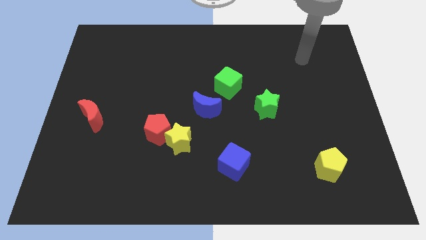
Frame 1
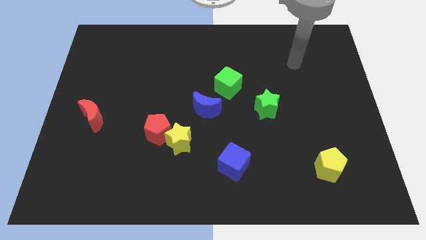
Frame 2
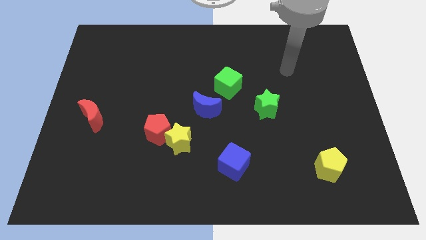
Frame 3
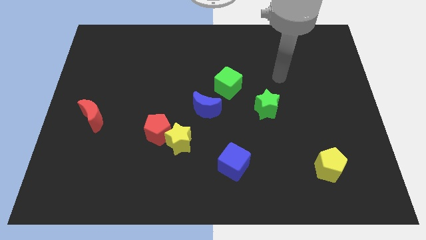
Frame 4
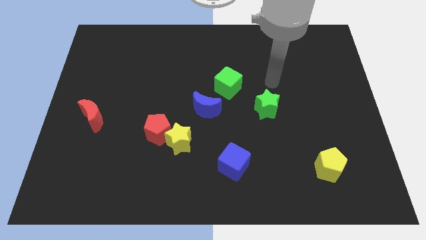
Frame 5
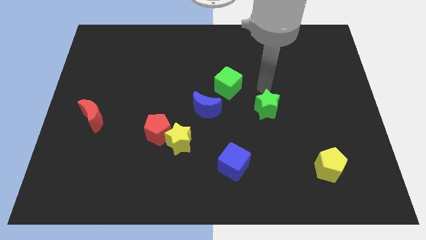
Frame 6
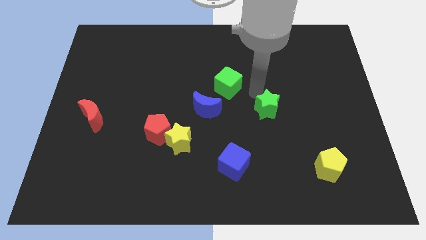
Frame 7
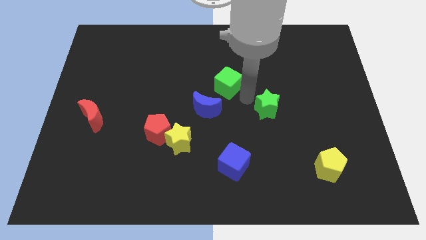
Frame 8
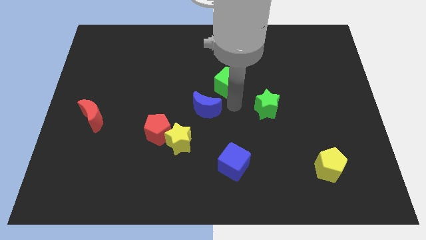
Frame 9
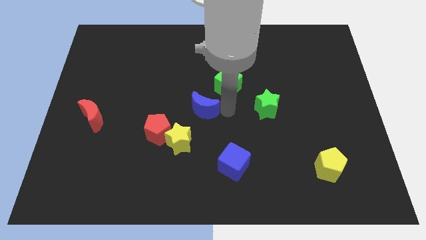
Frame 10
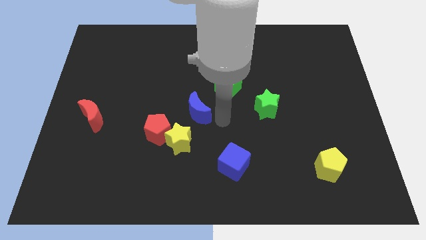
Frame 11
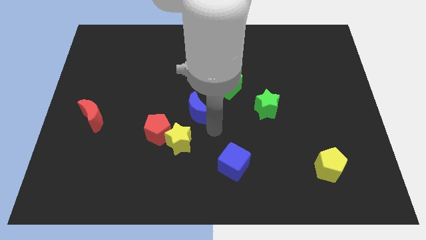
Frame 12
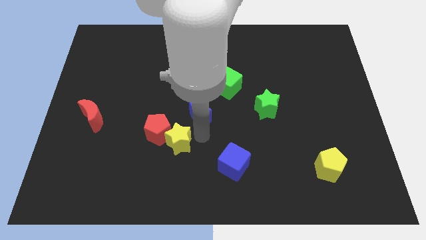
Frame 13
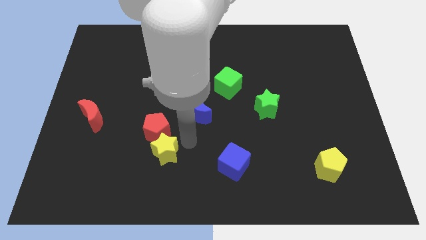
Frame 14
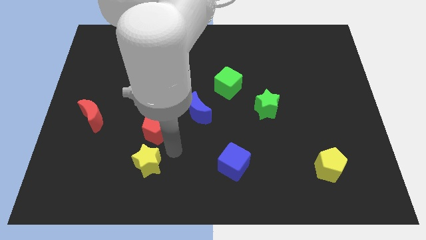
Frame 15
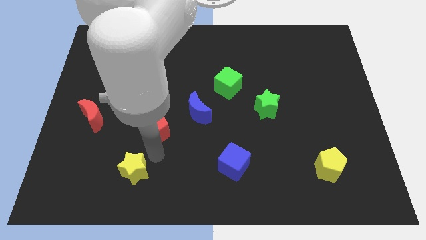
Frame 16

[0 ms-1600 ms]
separate the red pentagon from the yellow star

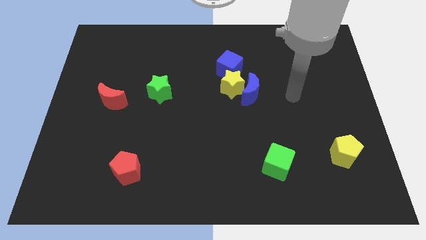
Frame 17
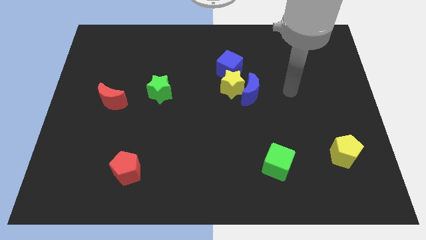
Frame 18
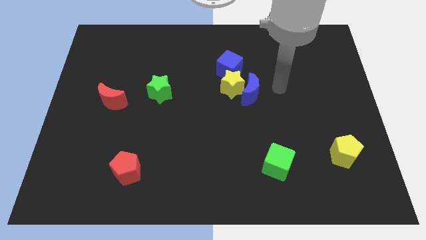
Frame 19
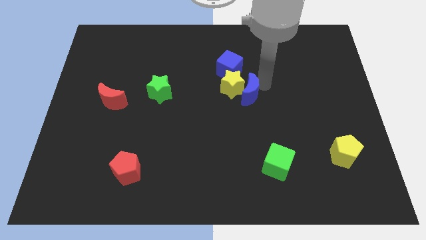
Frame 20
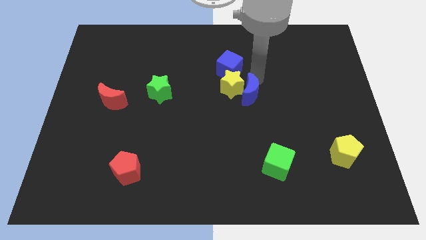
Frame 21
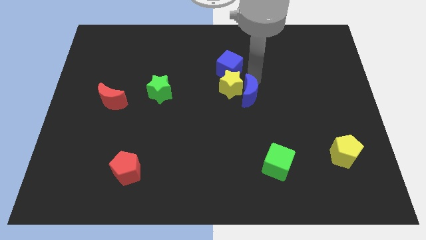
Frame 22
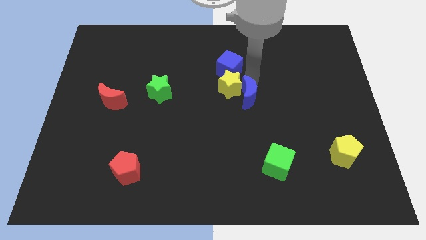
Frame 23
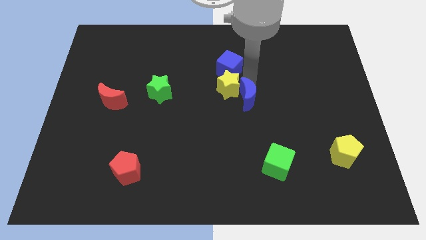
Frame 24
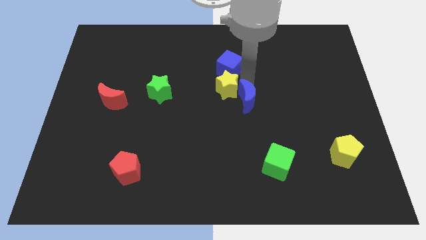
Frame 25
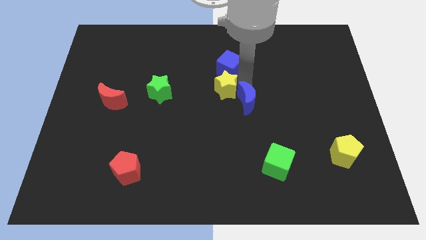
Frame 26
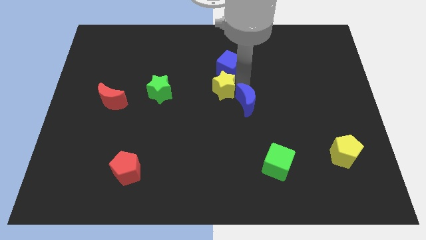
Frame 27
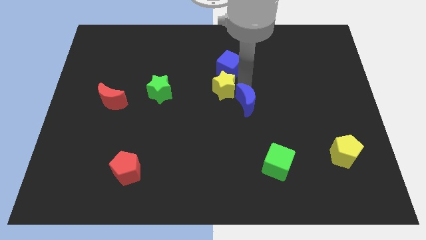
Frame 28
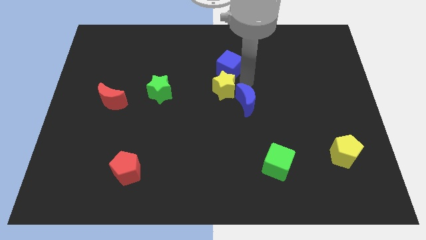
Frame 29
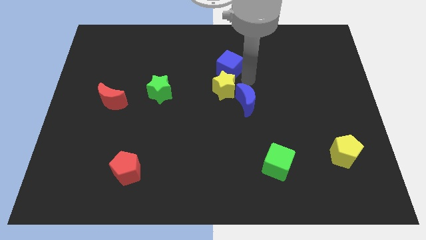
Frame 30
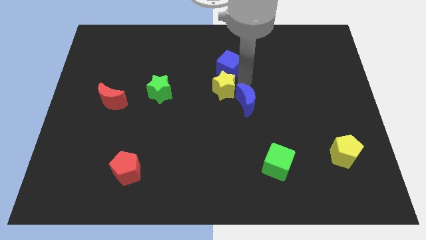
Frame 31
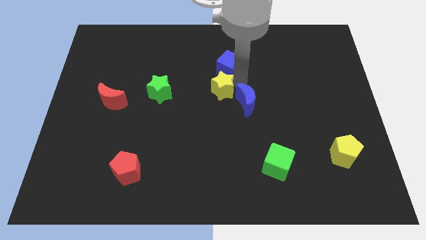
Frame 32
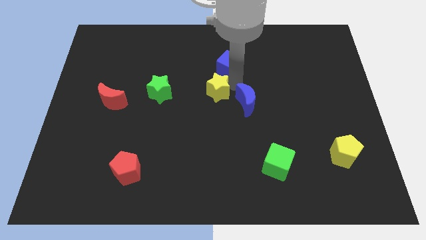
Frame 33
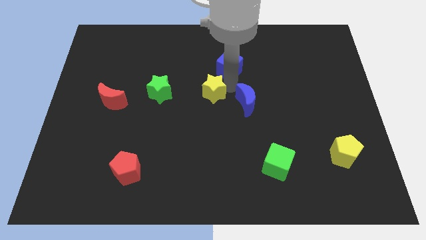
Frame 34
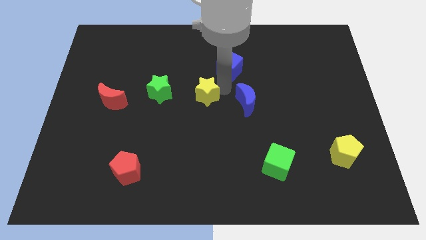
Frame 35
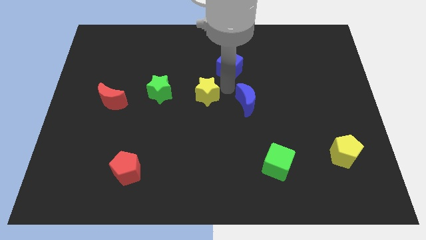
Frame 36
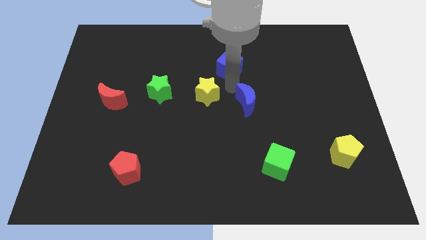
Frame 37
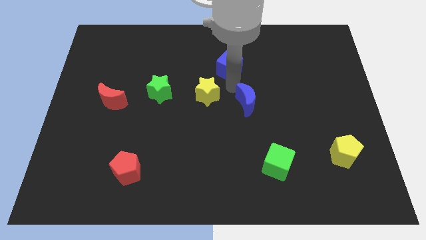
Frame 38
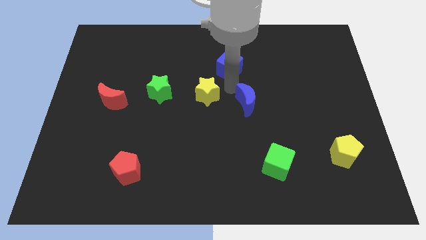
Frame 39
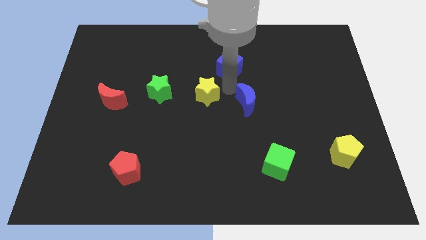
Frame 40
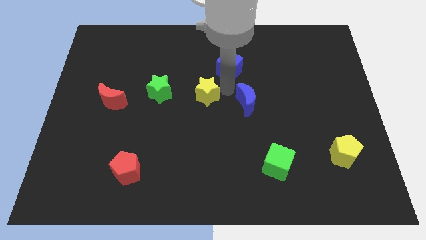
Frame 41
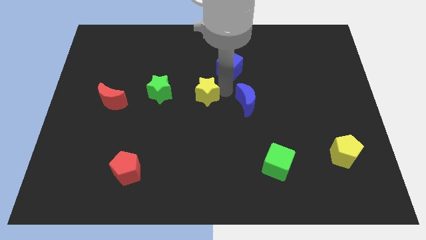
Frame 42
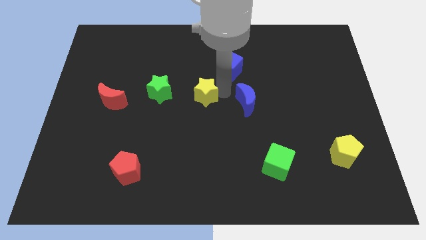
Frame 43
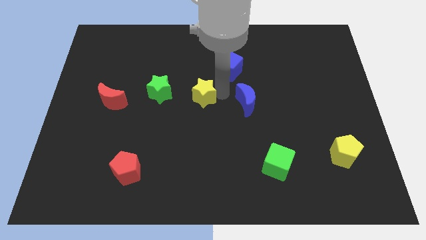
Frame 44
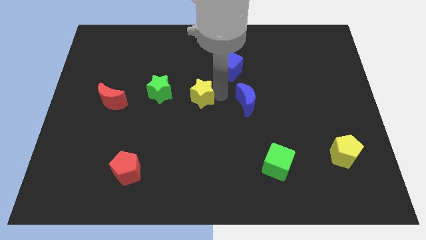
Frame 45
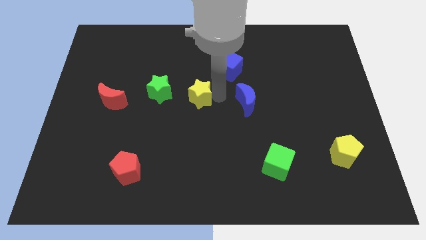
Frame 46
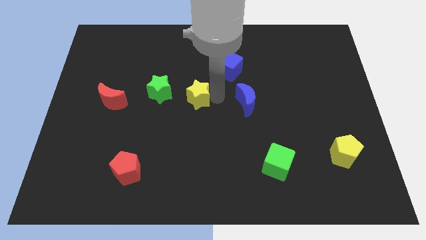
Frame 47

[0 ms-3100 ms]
move the yellow star away from the blue moon and blue cube

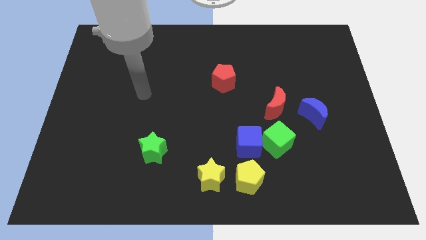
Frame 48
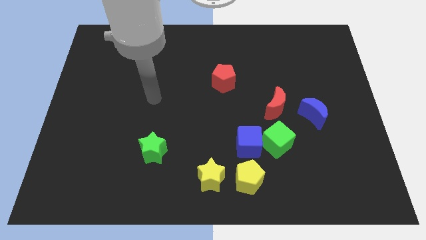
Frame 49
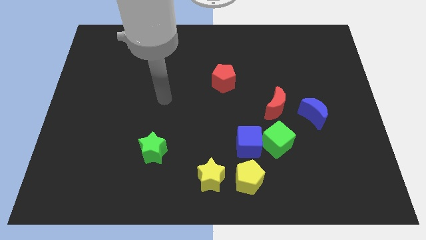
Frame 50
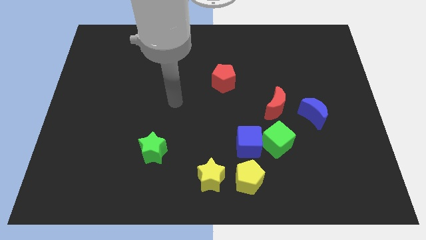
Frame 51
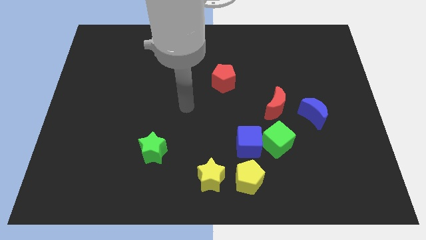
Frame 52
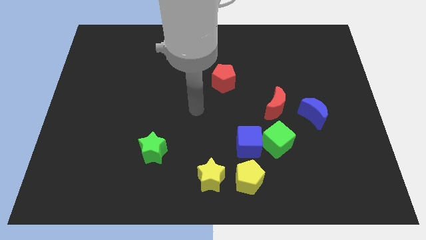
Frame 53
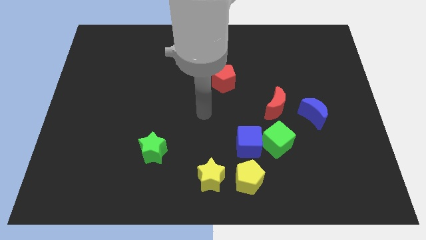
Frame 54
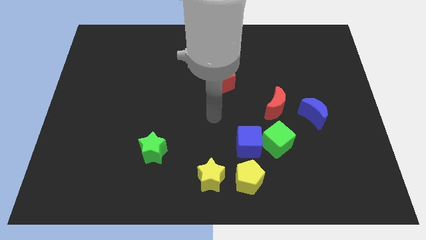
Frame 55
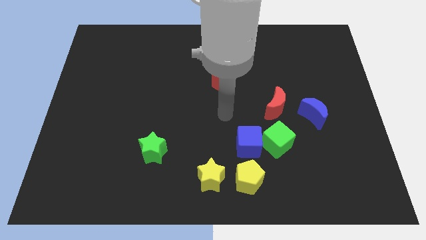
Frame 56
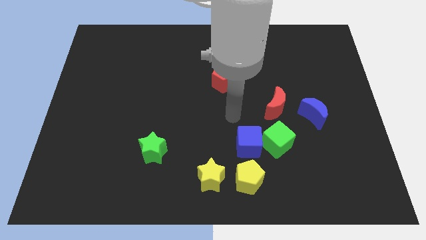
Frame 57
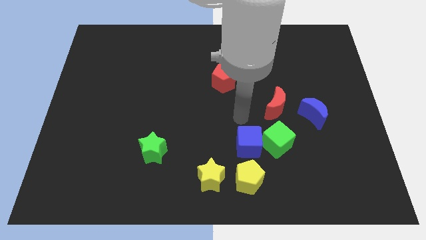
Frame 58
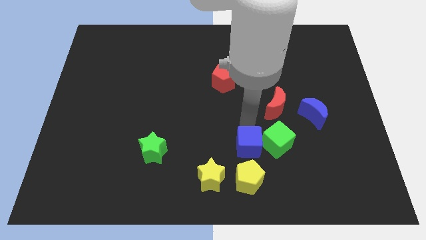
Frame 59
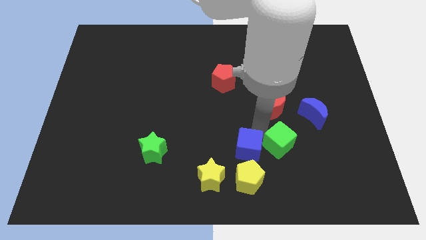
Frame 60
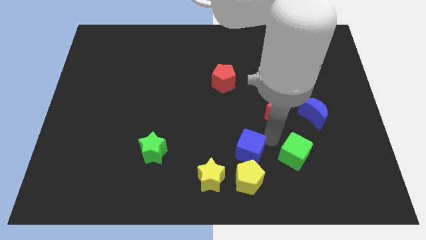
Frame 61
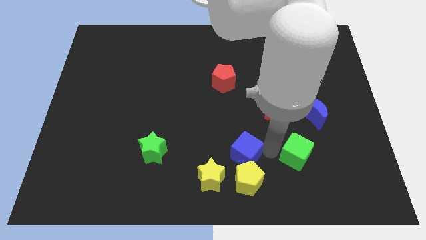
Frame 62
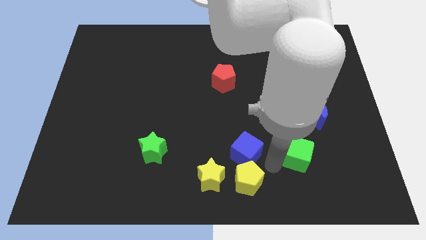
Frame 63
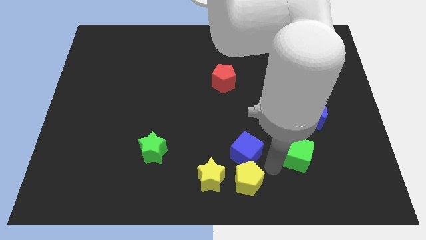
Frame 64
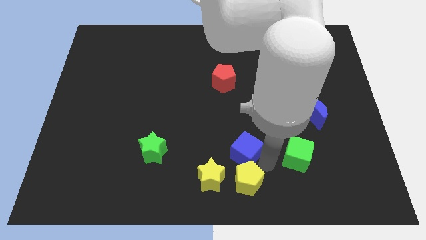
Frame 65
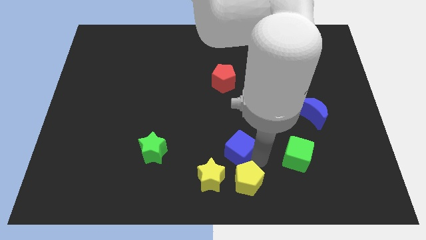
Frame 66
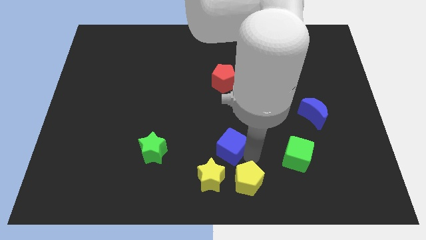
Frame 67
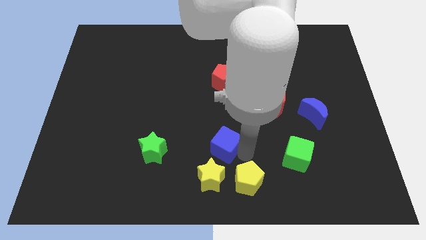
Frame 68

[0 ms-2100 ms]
move the blue cube away from the green cube and yellow pentagon

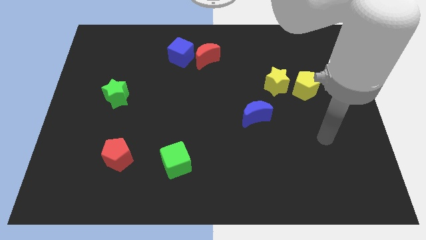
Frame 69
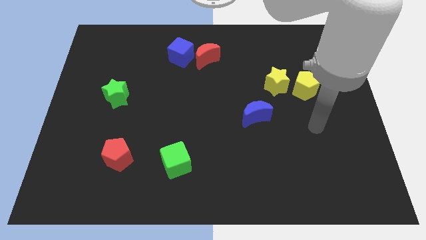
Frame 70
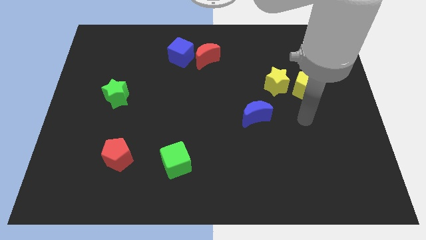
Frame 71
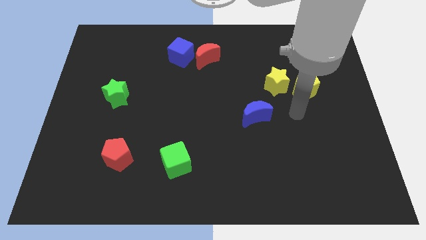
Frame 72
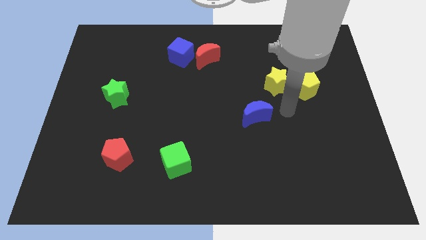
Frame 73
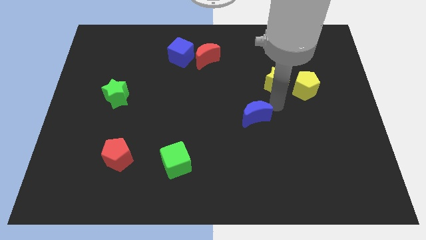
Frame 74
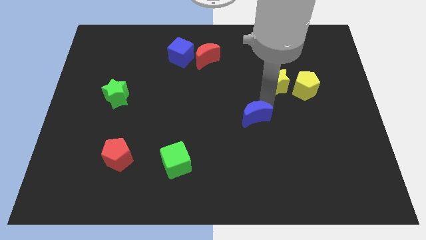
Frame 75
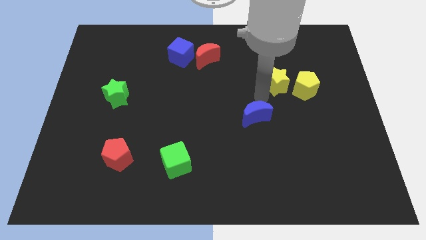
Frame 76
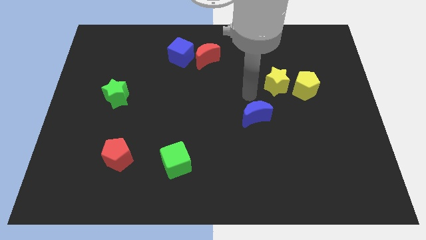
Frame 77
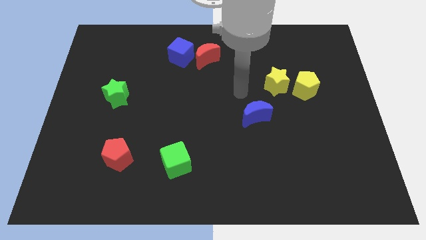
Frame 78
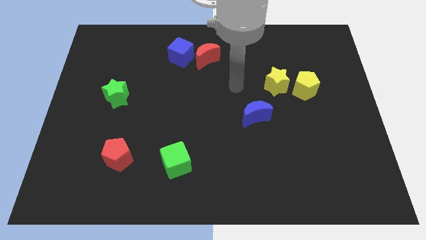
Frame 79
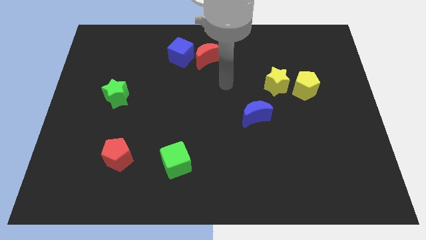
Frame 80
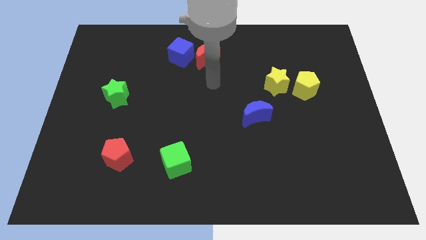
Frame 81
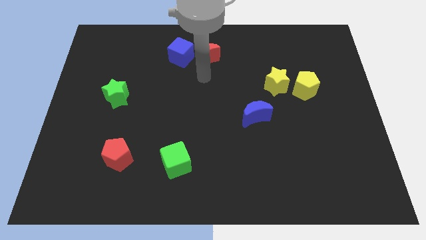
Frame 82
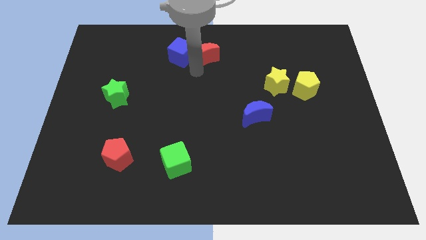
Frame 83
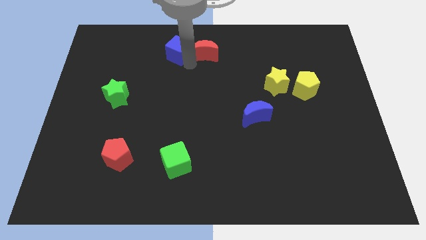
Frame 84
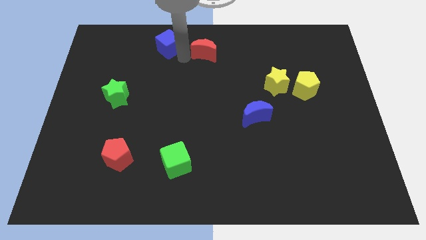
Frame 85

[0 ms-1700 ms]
pull the red moon apart from the blue cube

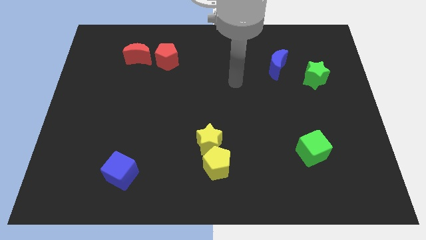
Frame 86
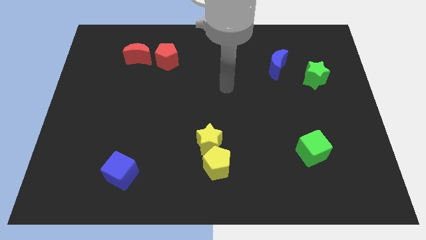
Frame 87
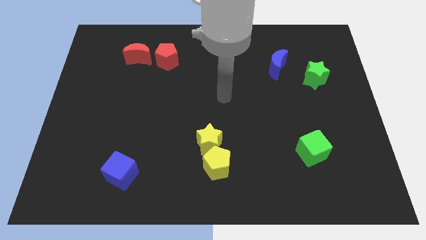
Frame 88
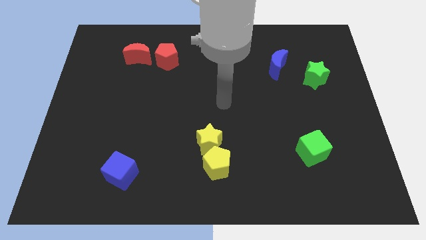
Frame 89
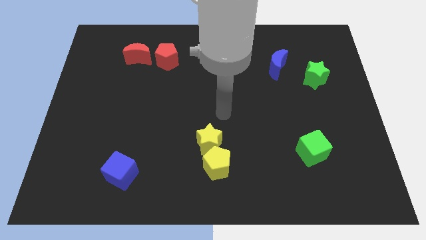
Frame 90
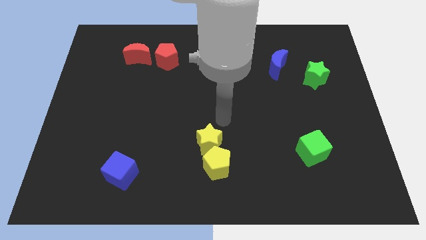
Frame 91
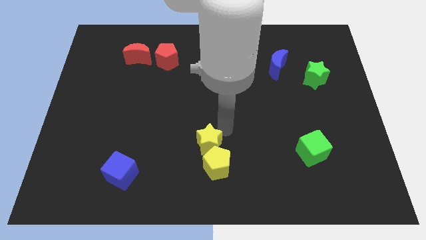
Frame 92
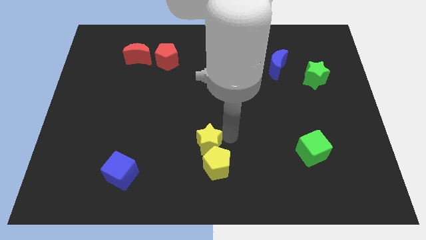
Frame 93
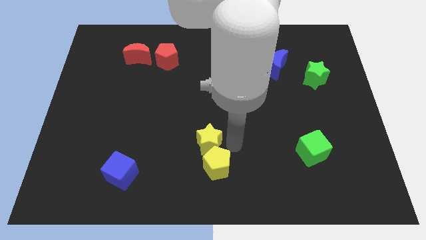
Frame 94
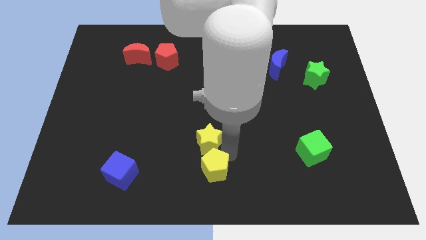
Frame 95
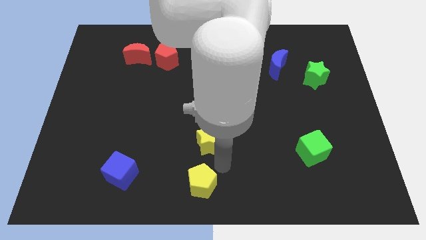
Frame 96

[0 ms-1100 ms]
separate the yellow star from the yellow pentagon
